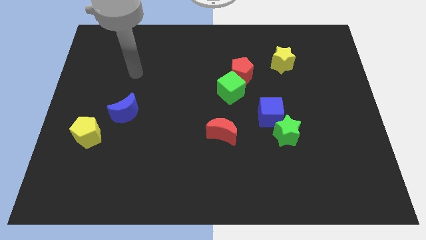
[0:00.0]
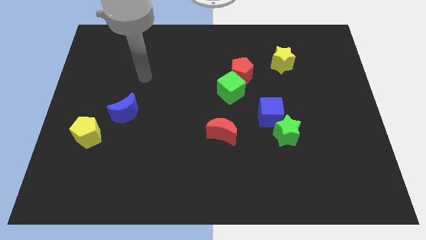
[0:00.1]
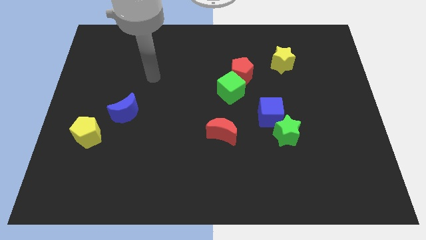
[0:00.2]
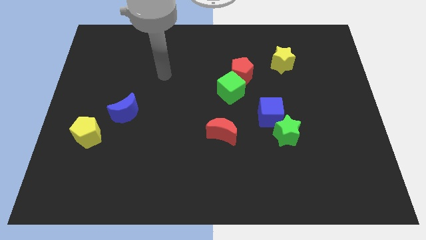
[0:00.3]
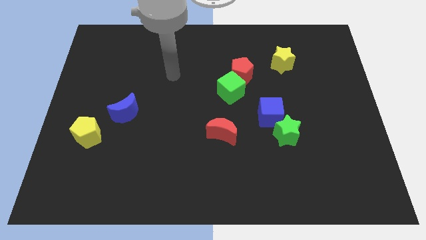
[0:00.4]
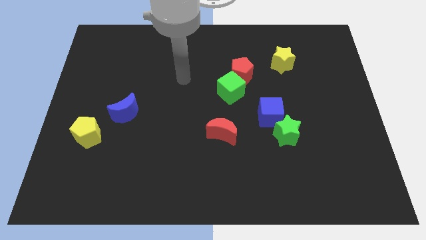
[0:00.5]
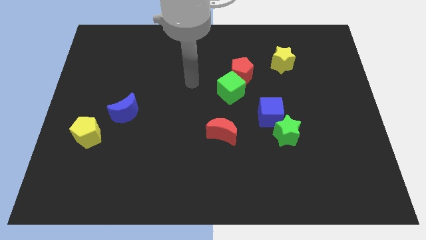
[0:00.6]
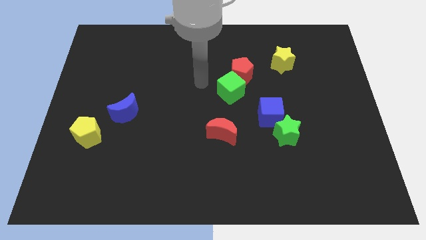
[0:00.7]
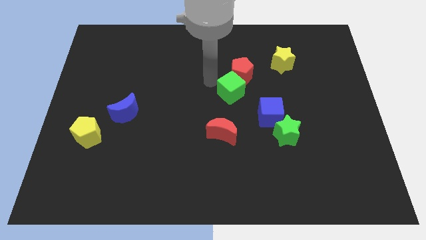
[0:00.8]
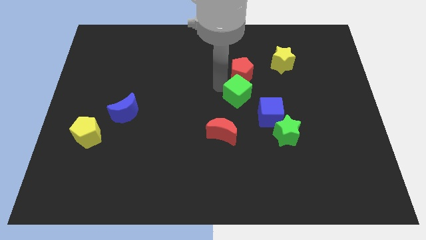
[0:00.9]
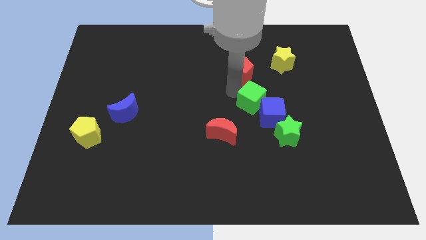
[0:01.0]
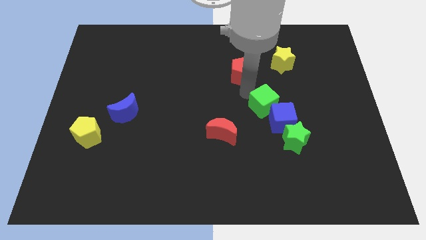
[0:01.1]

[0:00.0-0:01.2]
separate the red pentagon from the green cube

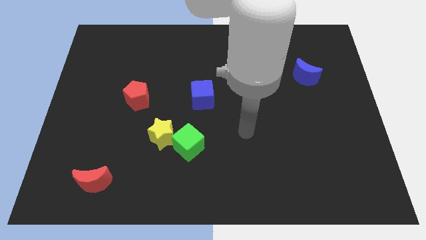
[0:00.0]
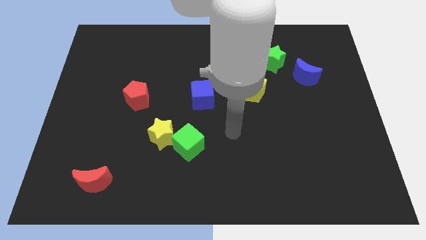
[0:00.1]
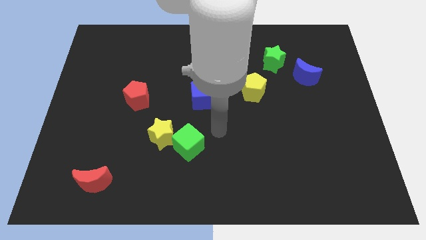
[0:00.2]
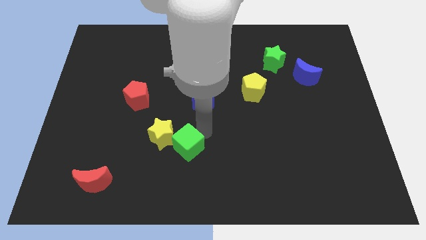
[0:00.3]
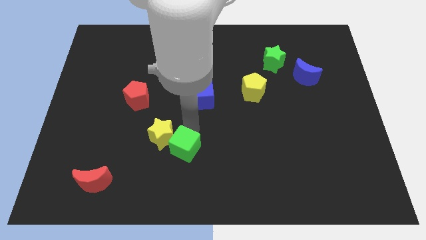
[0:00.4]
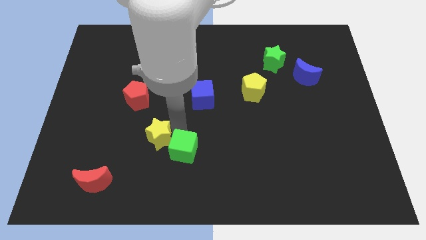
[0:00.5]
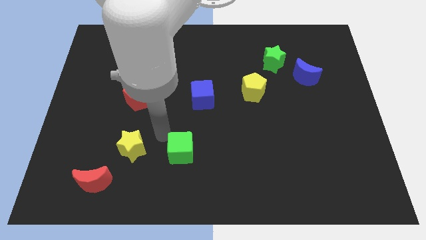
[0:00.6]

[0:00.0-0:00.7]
move the green cube away from the yellow star

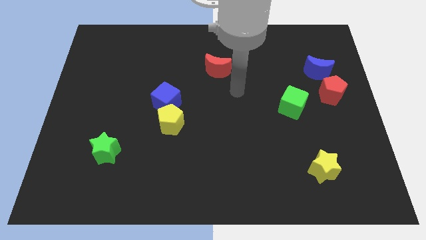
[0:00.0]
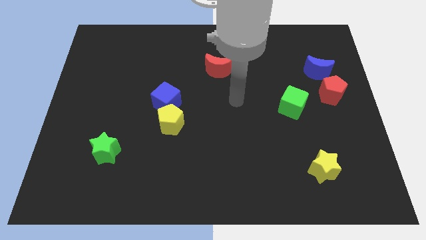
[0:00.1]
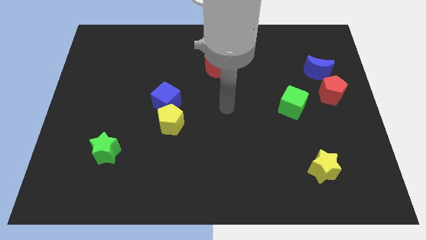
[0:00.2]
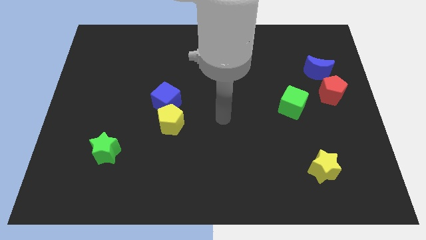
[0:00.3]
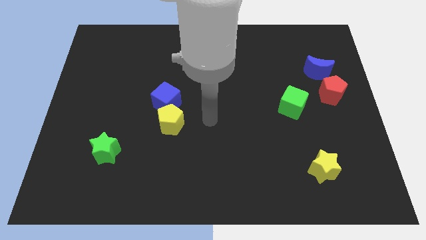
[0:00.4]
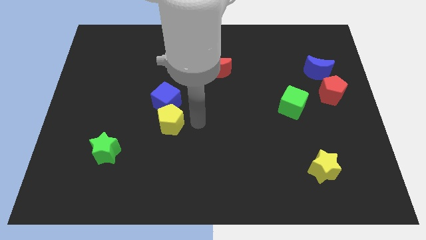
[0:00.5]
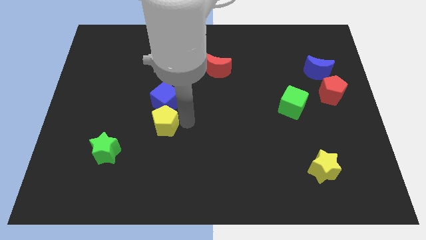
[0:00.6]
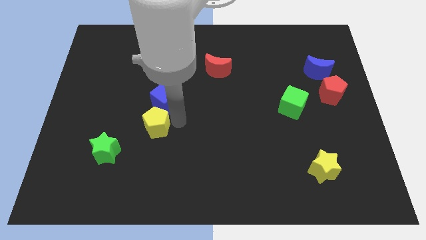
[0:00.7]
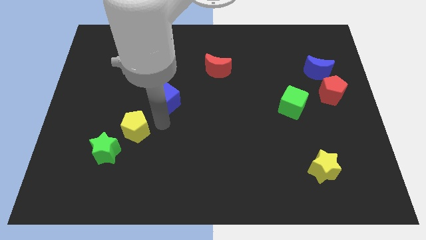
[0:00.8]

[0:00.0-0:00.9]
separate the blue cube from the yellow pentagon

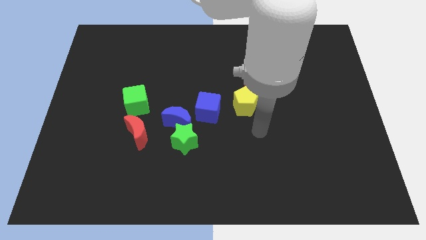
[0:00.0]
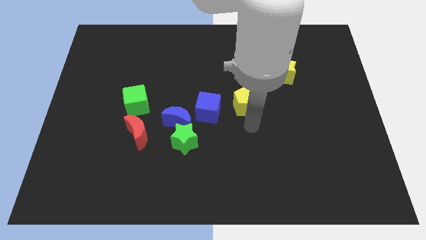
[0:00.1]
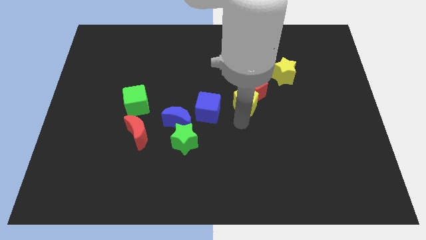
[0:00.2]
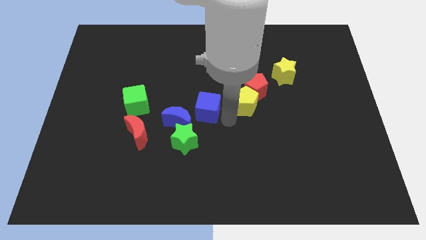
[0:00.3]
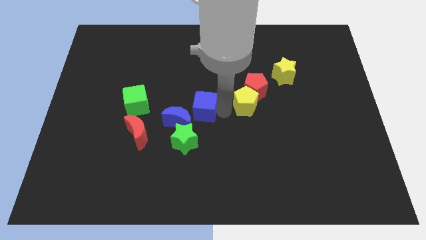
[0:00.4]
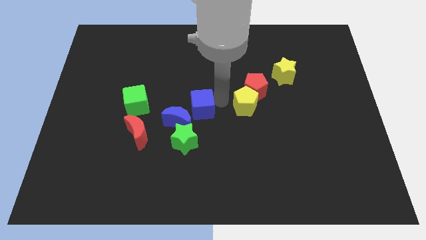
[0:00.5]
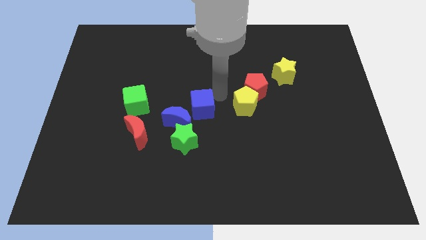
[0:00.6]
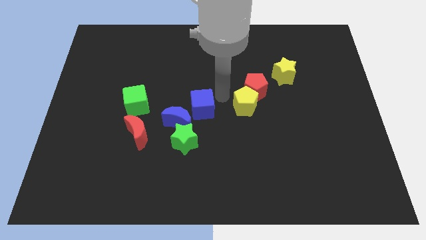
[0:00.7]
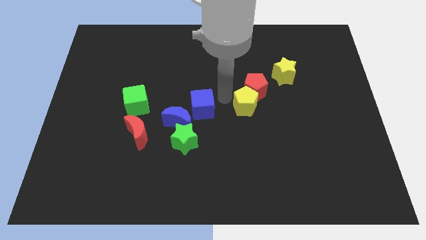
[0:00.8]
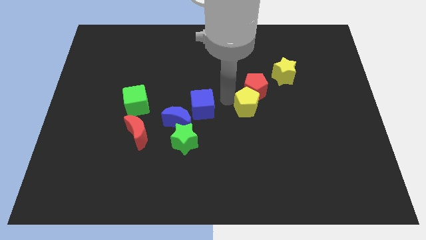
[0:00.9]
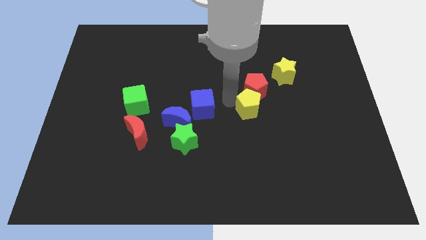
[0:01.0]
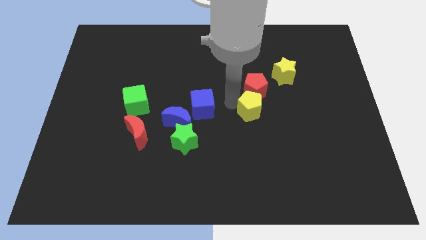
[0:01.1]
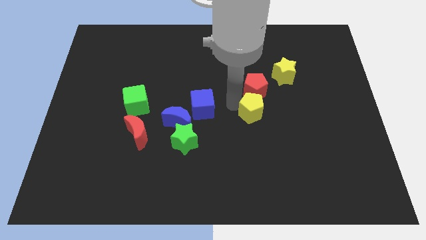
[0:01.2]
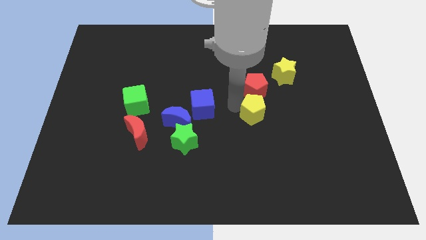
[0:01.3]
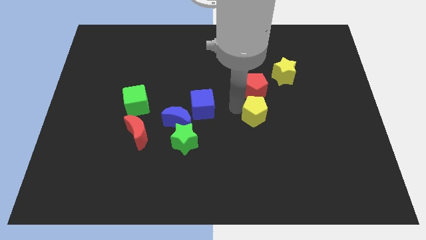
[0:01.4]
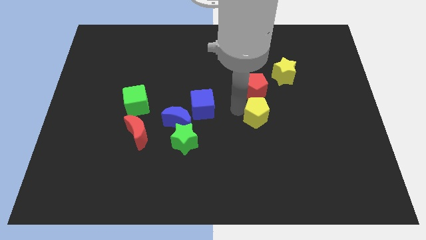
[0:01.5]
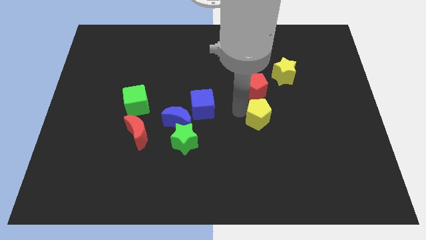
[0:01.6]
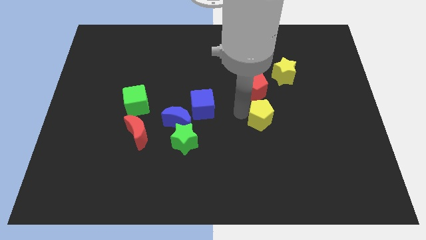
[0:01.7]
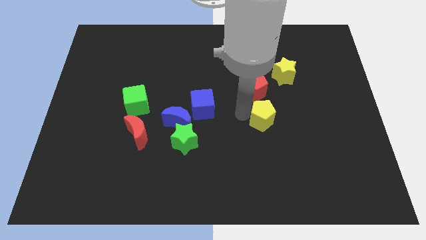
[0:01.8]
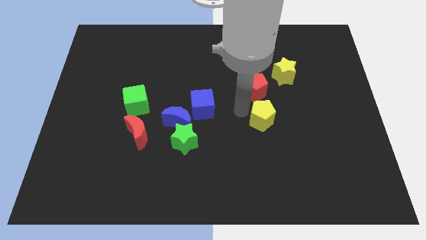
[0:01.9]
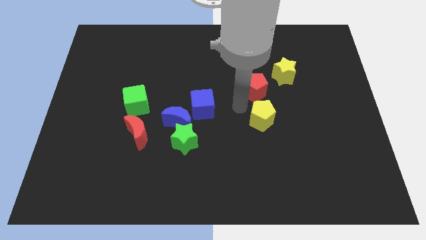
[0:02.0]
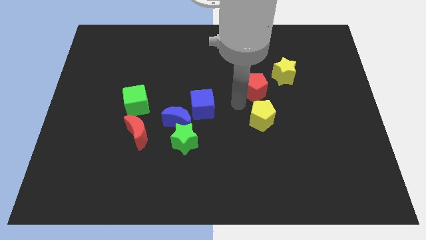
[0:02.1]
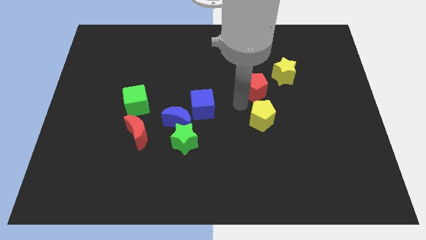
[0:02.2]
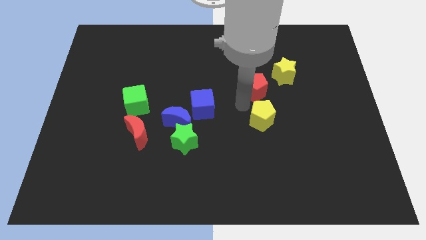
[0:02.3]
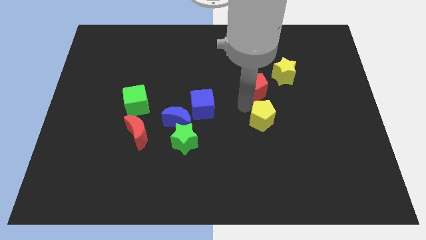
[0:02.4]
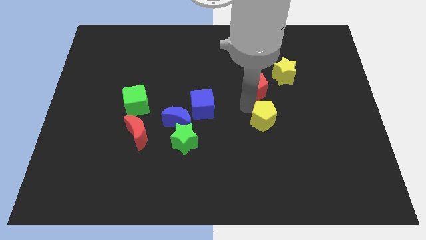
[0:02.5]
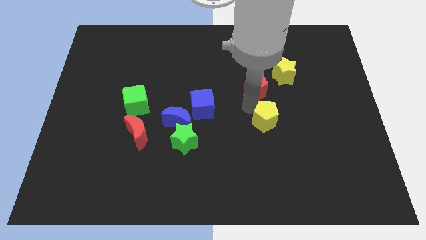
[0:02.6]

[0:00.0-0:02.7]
move the yellow pentagon away from the red pentagon and blue cube

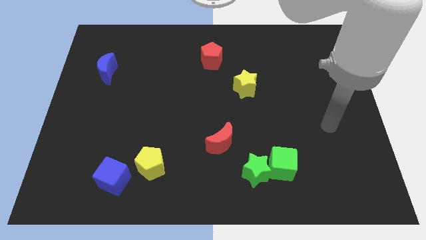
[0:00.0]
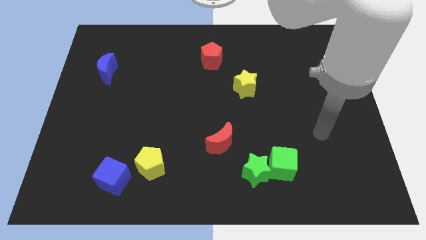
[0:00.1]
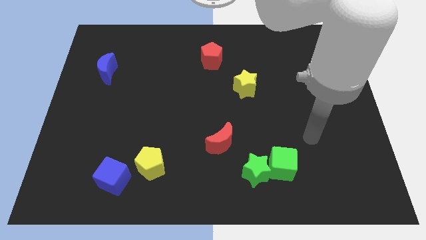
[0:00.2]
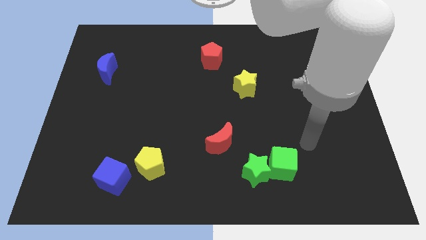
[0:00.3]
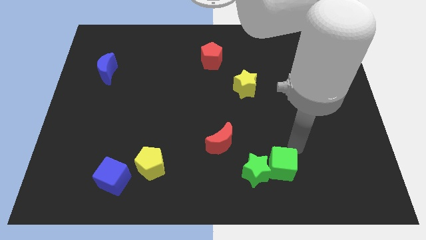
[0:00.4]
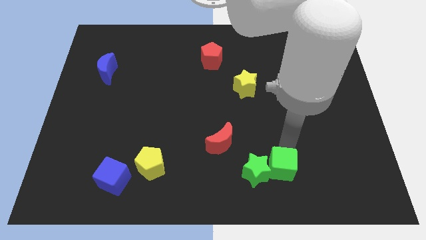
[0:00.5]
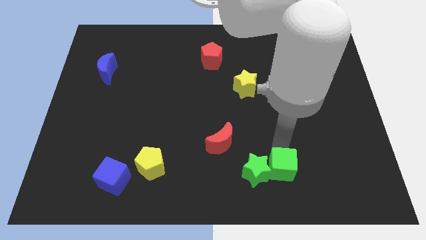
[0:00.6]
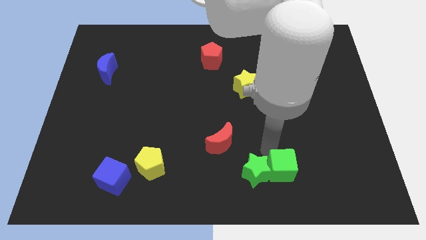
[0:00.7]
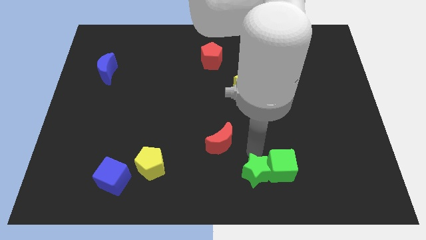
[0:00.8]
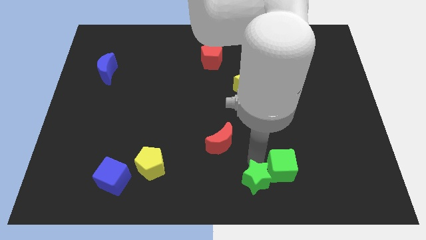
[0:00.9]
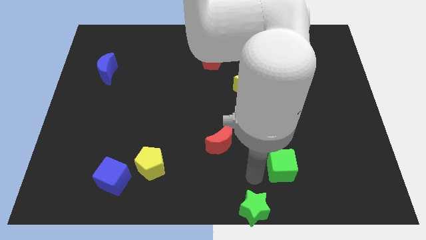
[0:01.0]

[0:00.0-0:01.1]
separate the green cube from the green star

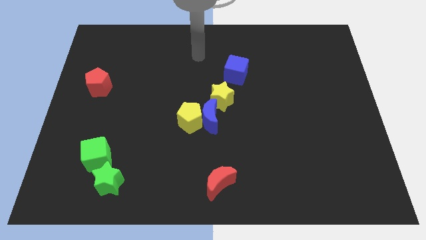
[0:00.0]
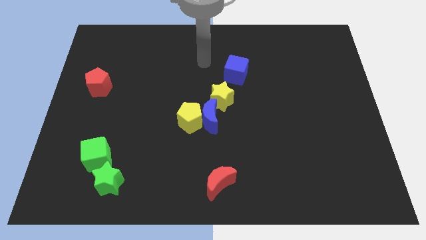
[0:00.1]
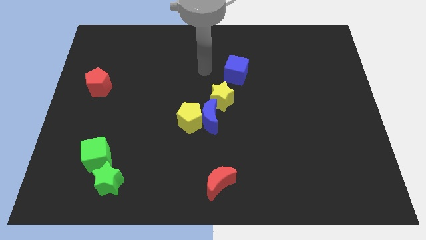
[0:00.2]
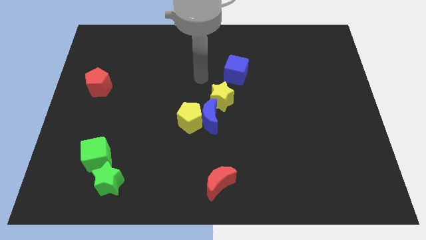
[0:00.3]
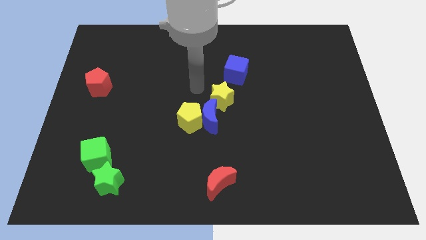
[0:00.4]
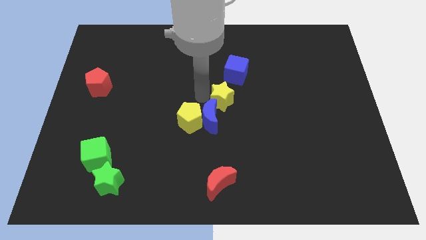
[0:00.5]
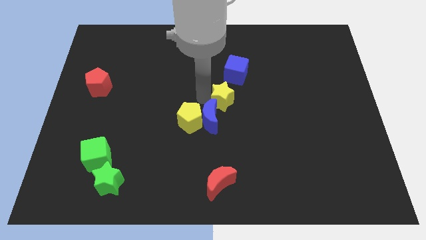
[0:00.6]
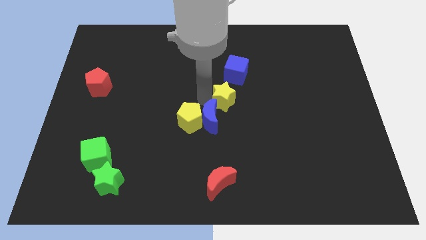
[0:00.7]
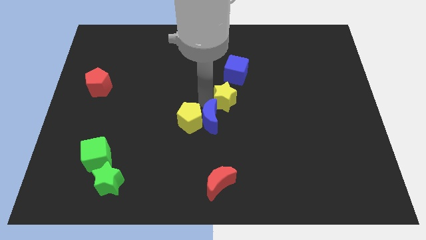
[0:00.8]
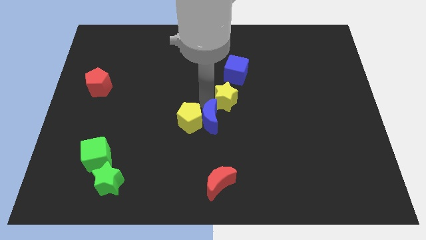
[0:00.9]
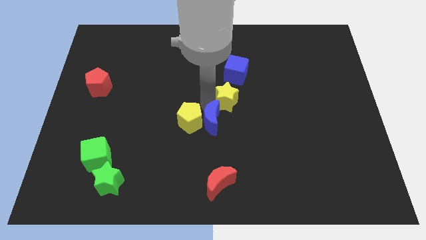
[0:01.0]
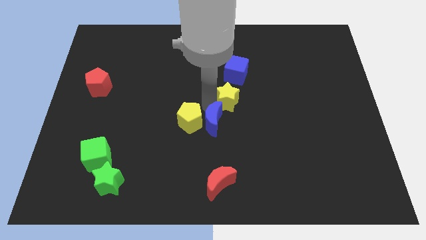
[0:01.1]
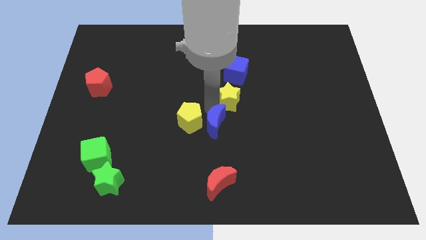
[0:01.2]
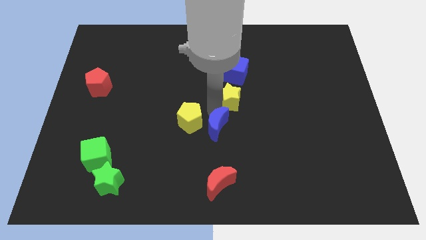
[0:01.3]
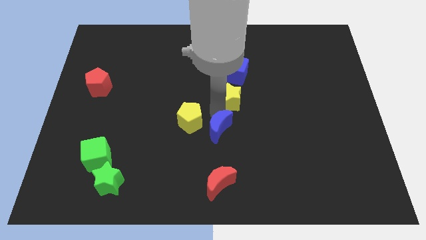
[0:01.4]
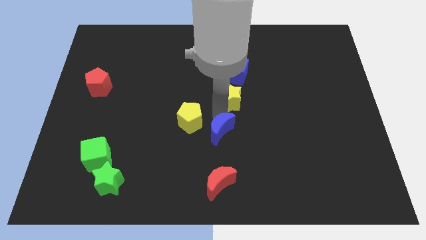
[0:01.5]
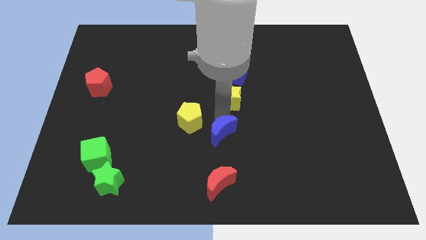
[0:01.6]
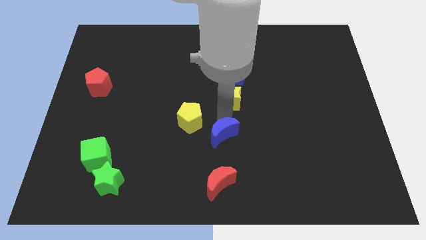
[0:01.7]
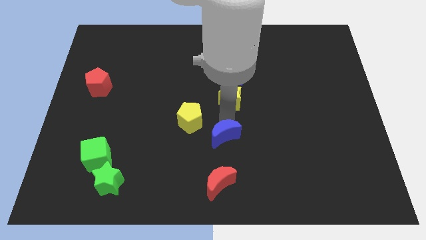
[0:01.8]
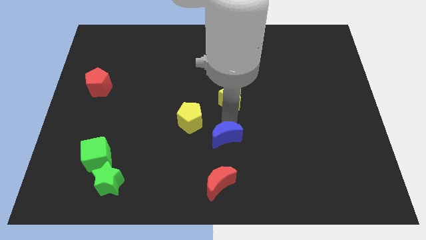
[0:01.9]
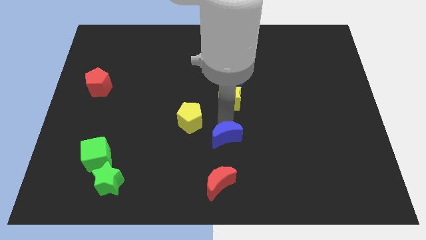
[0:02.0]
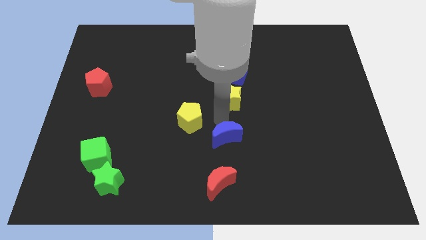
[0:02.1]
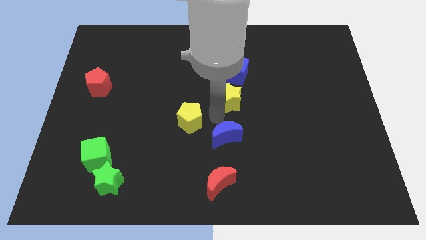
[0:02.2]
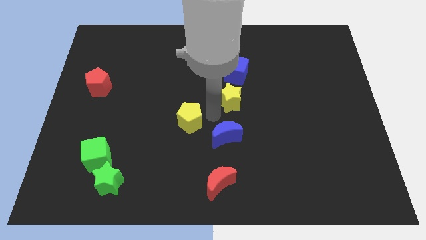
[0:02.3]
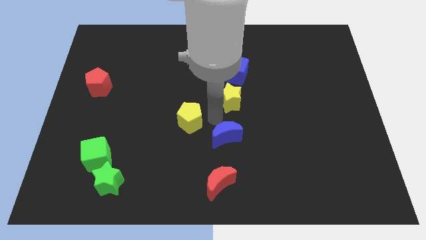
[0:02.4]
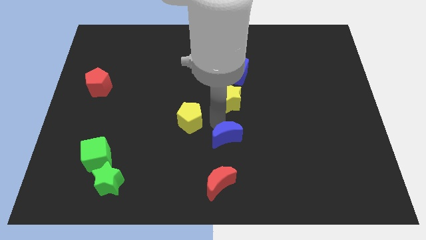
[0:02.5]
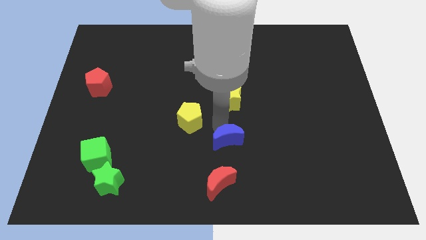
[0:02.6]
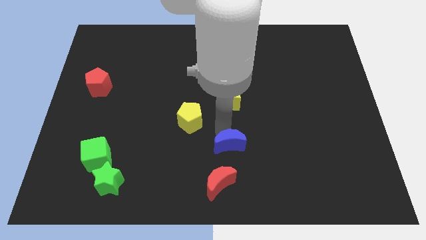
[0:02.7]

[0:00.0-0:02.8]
pull the blue moon apart from the yellow pentagon and yellow star
